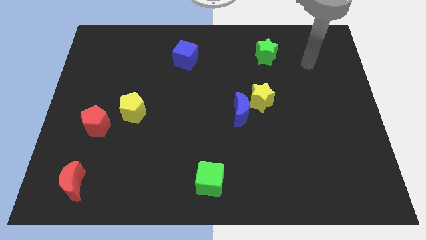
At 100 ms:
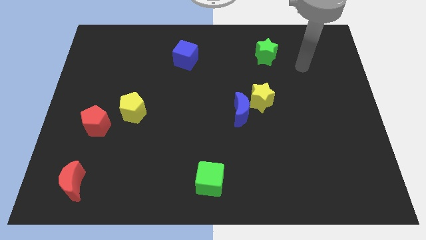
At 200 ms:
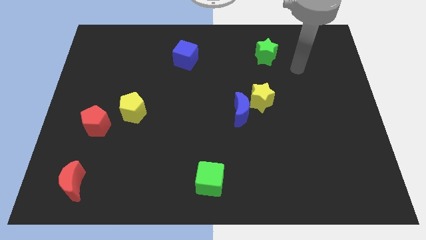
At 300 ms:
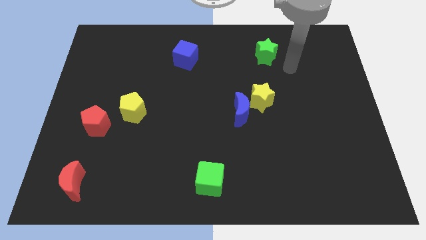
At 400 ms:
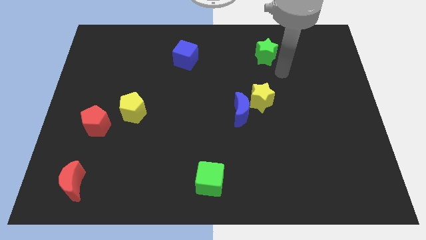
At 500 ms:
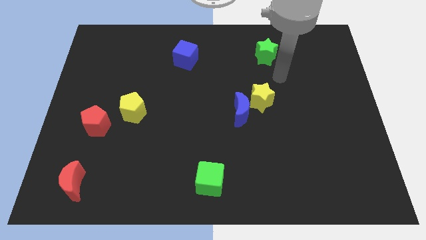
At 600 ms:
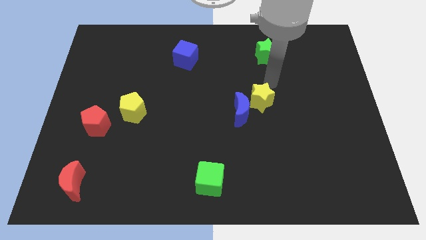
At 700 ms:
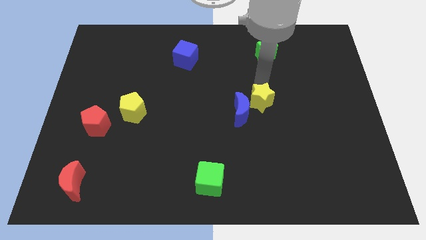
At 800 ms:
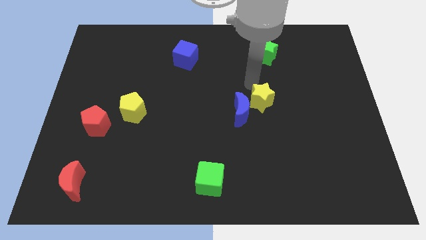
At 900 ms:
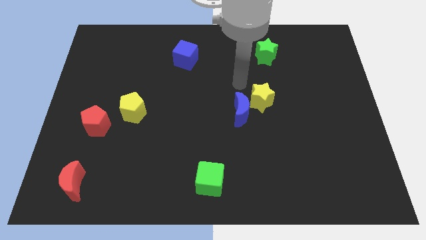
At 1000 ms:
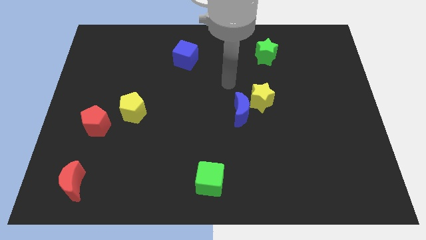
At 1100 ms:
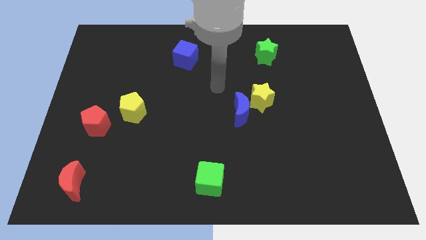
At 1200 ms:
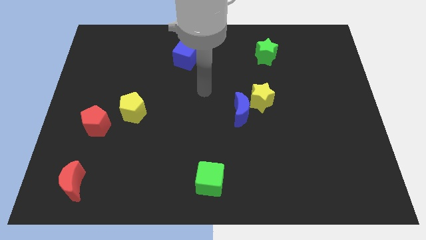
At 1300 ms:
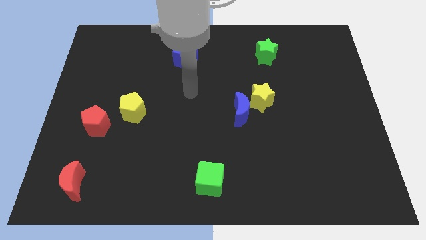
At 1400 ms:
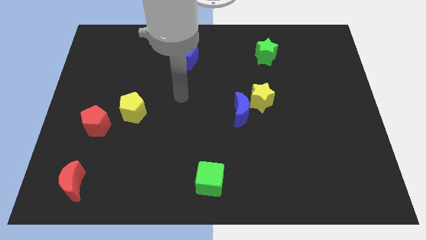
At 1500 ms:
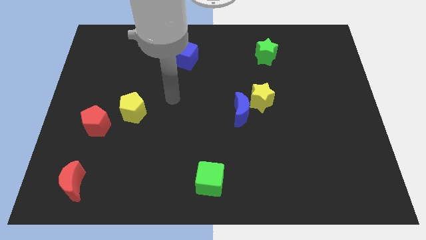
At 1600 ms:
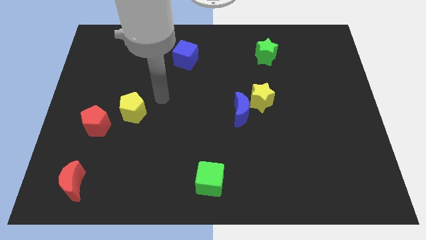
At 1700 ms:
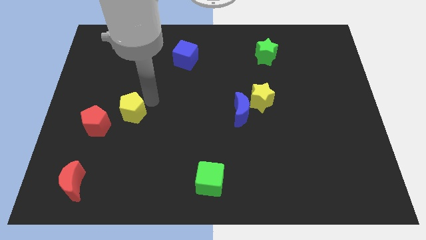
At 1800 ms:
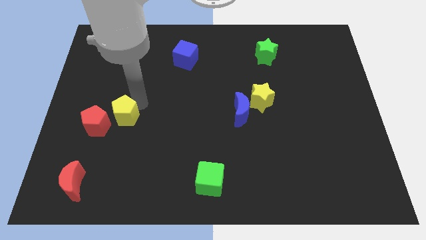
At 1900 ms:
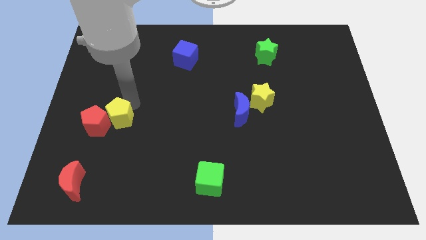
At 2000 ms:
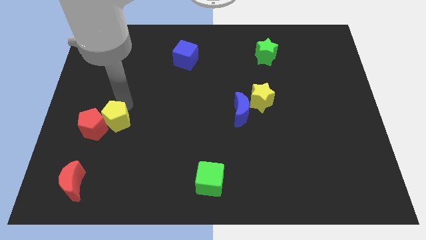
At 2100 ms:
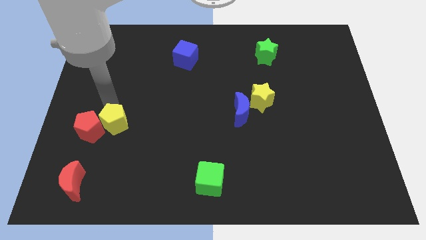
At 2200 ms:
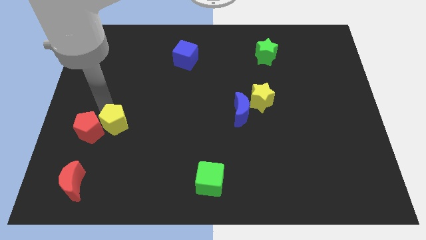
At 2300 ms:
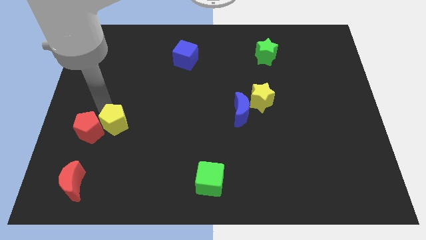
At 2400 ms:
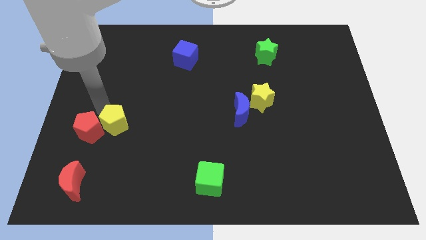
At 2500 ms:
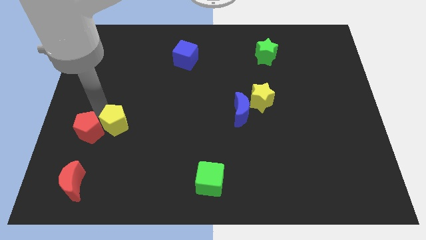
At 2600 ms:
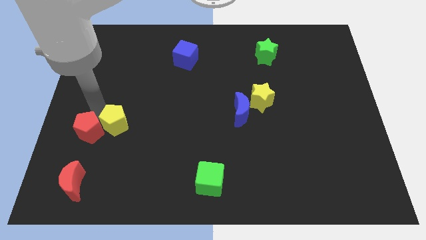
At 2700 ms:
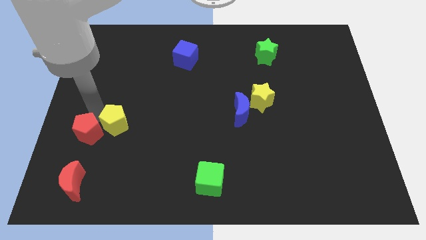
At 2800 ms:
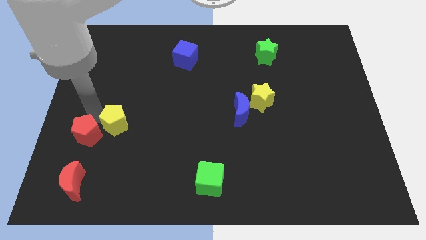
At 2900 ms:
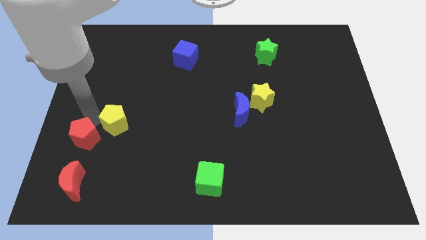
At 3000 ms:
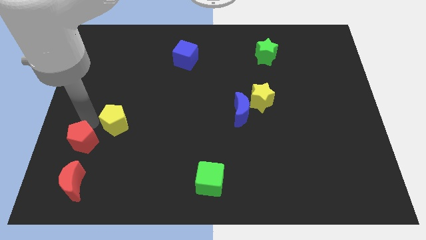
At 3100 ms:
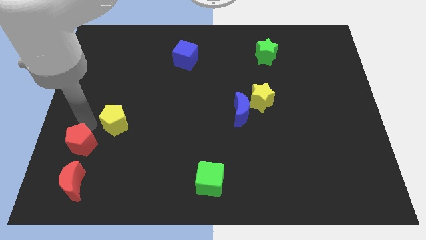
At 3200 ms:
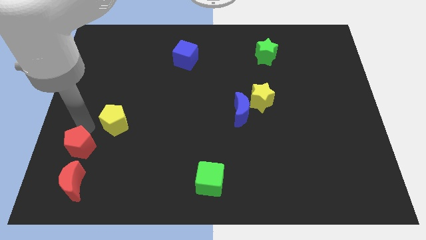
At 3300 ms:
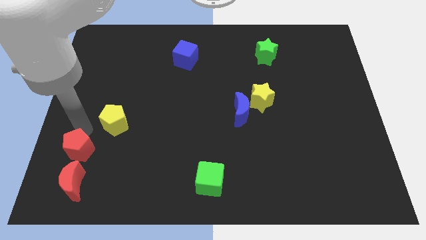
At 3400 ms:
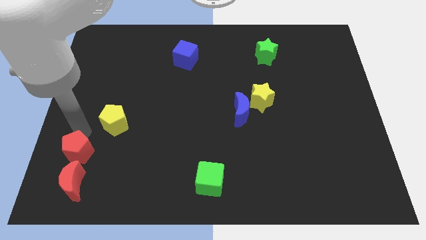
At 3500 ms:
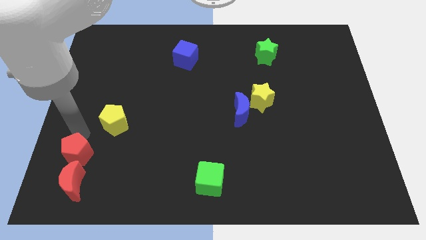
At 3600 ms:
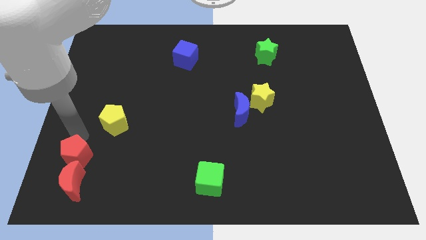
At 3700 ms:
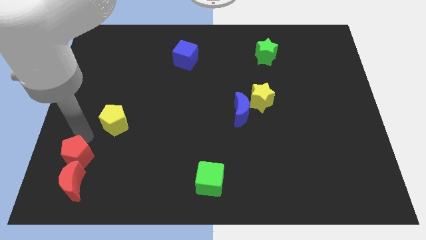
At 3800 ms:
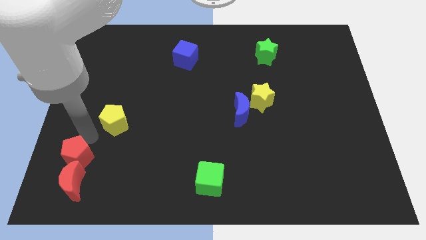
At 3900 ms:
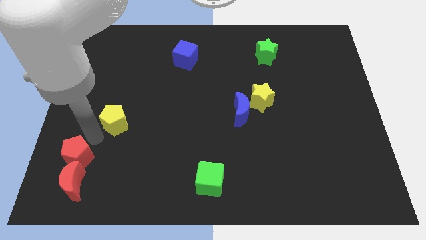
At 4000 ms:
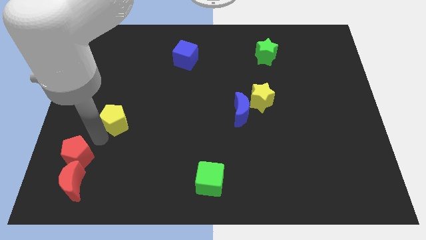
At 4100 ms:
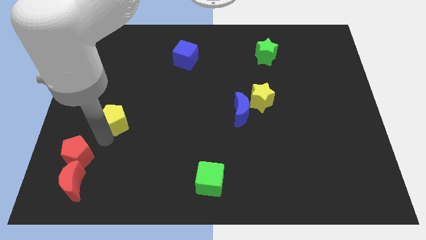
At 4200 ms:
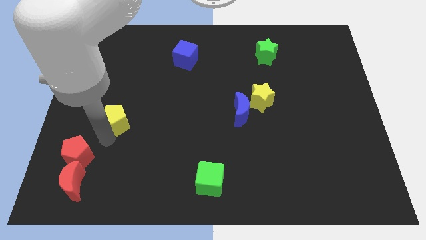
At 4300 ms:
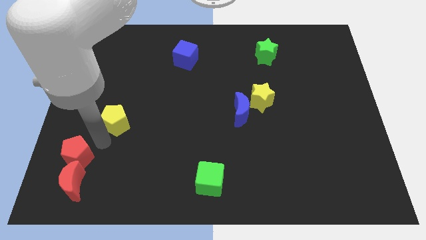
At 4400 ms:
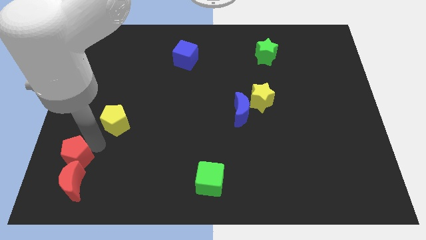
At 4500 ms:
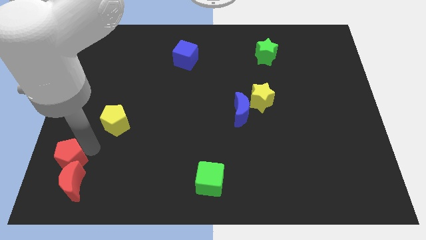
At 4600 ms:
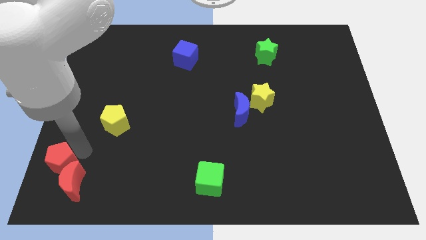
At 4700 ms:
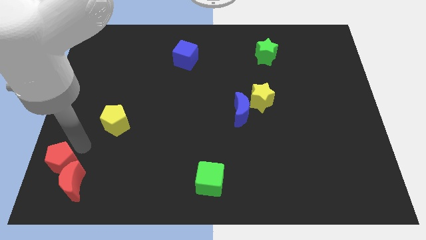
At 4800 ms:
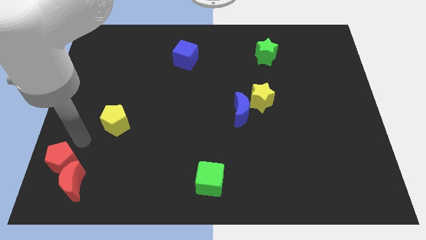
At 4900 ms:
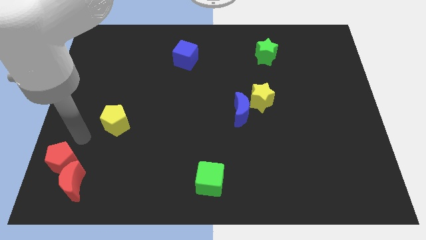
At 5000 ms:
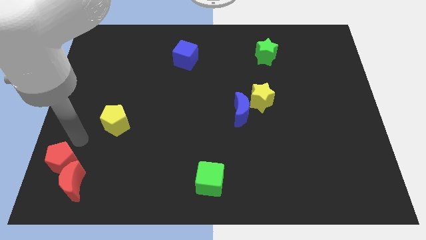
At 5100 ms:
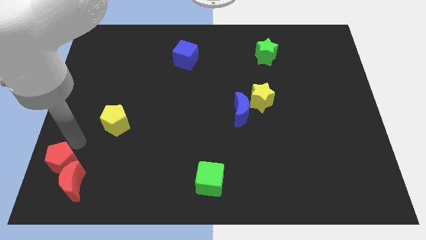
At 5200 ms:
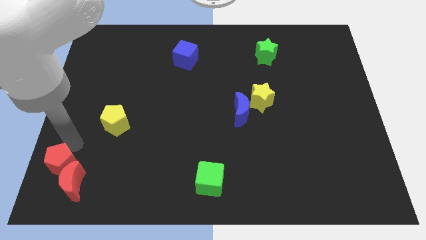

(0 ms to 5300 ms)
move the red pentagon to the lower left corner
